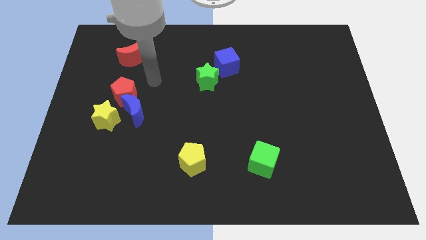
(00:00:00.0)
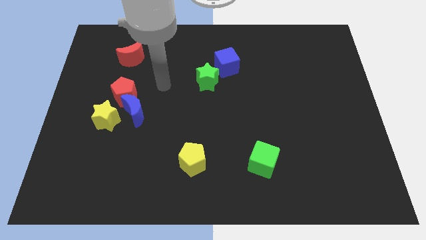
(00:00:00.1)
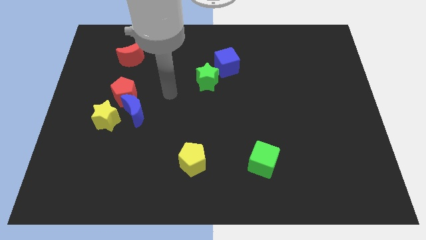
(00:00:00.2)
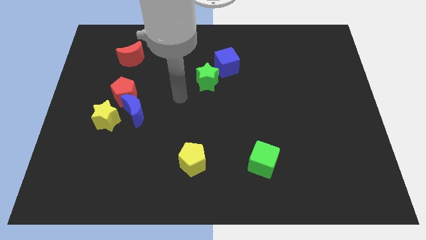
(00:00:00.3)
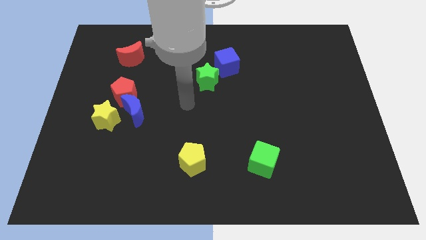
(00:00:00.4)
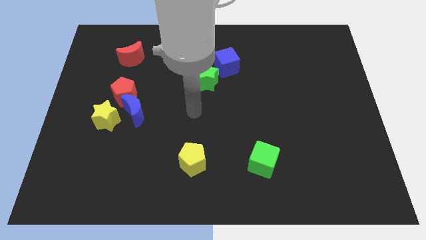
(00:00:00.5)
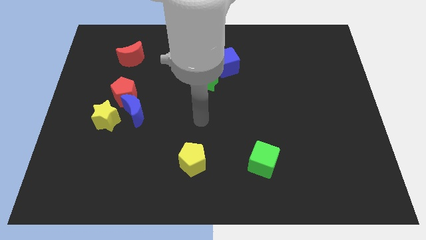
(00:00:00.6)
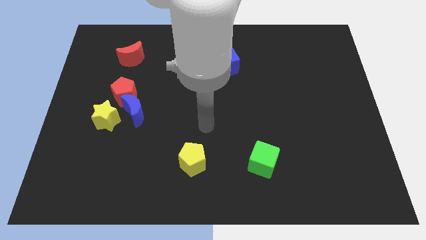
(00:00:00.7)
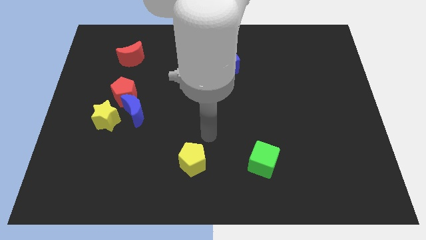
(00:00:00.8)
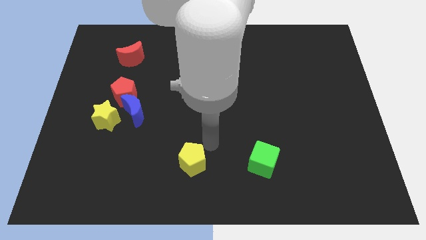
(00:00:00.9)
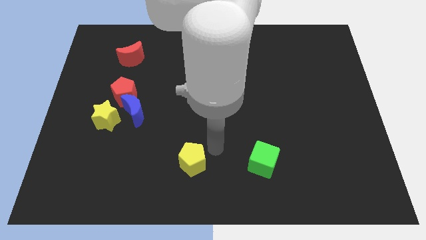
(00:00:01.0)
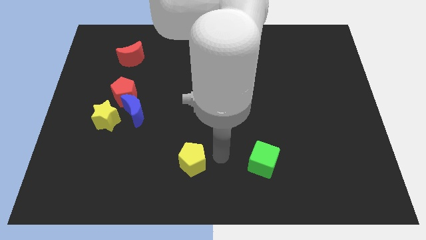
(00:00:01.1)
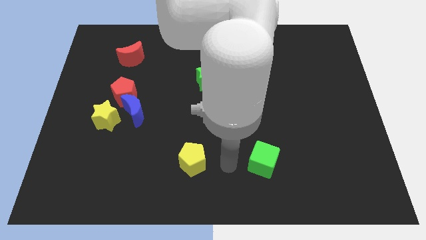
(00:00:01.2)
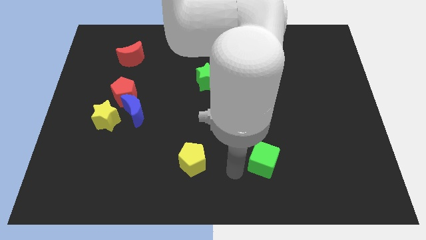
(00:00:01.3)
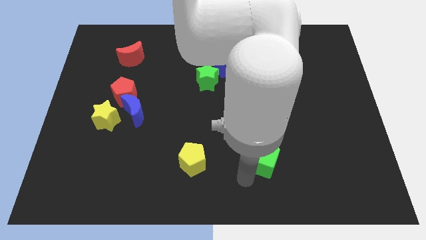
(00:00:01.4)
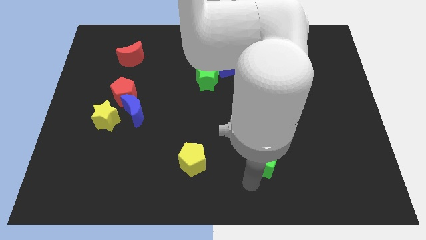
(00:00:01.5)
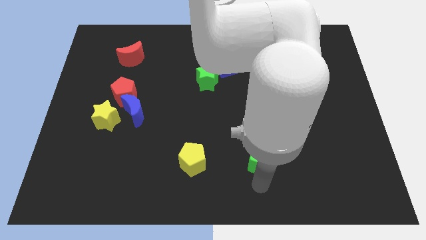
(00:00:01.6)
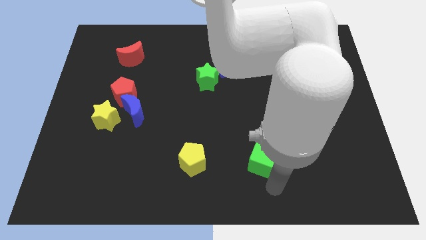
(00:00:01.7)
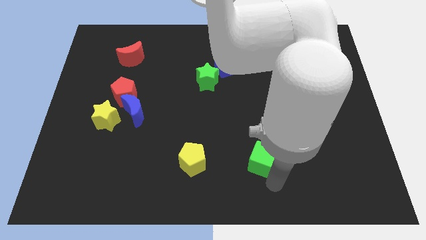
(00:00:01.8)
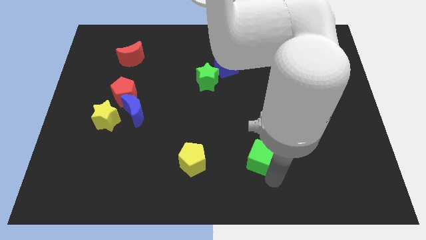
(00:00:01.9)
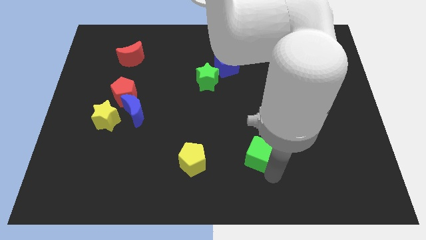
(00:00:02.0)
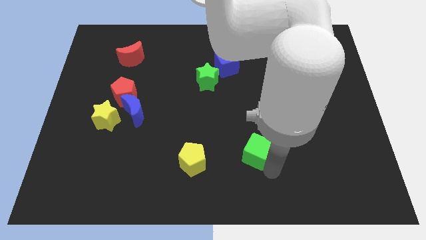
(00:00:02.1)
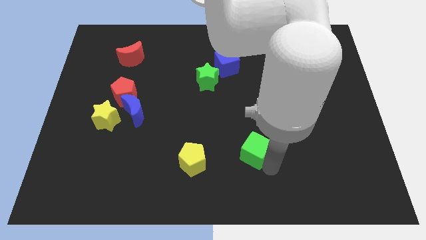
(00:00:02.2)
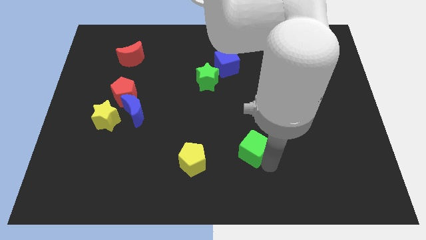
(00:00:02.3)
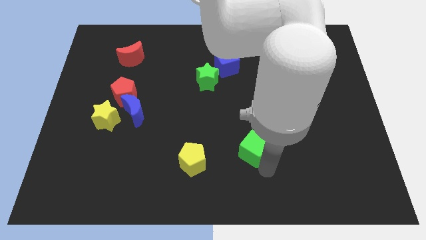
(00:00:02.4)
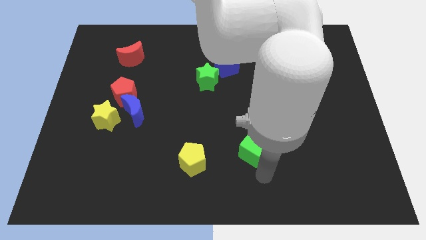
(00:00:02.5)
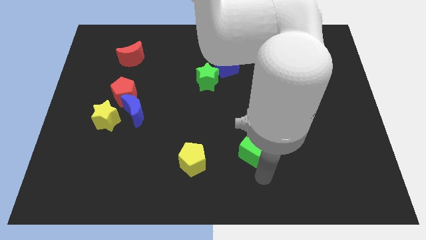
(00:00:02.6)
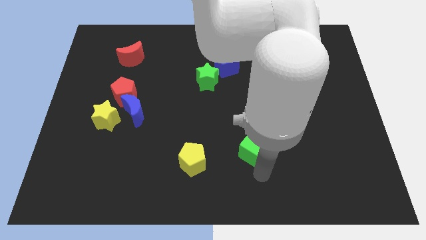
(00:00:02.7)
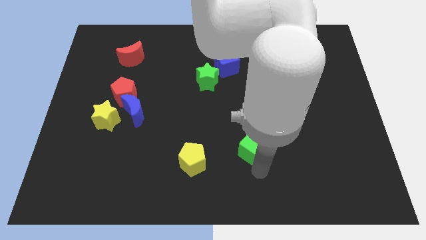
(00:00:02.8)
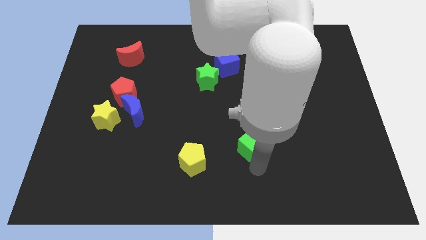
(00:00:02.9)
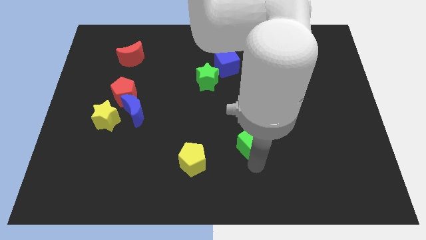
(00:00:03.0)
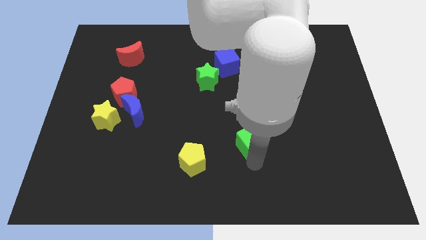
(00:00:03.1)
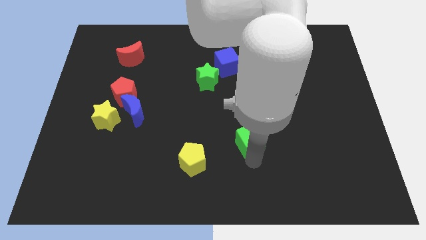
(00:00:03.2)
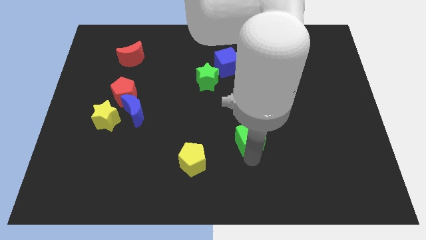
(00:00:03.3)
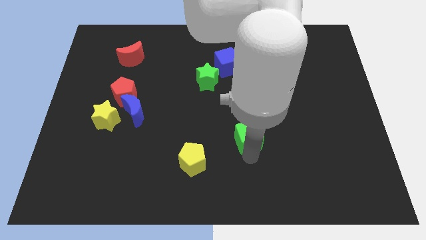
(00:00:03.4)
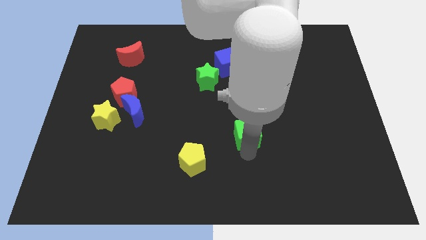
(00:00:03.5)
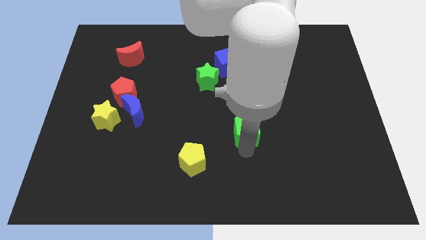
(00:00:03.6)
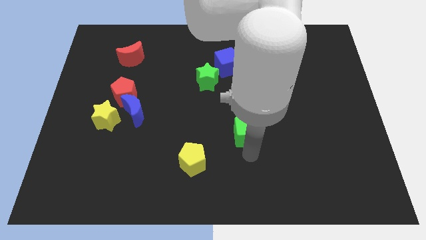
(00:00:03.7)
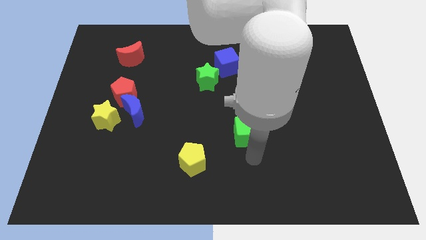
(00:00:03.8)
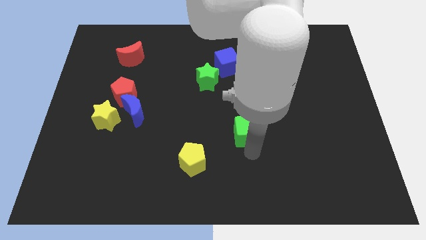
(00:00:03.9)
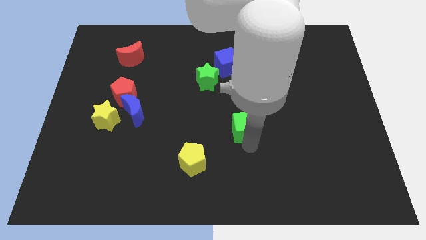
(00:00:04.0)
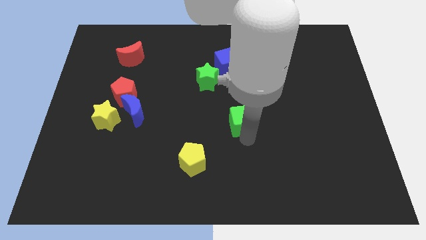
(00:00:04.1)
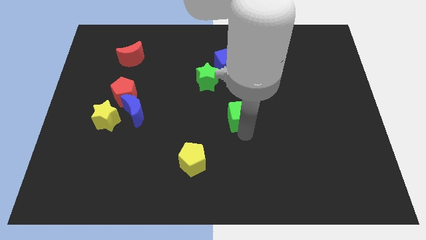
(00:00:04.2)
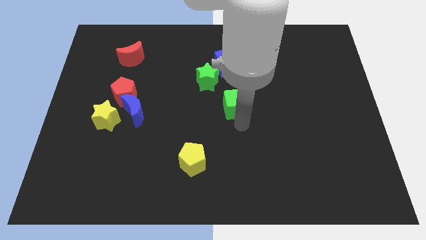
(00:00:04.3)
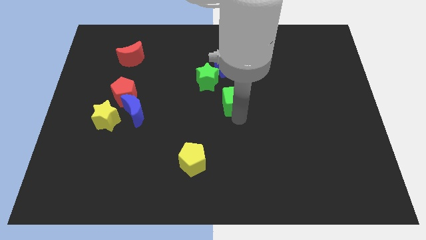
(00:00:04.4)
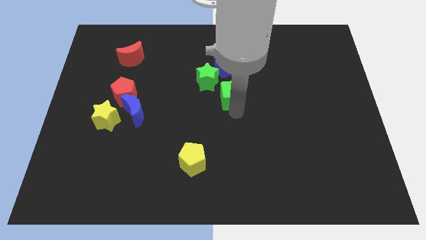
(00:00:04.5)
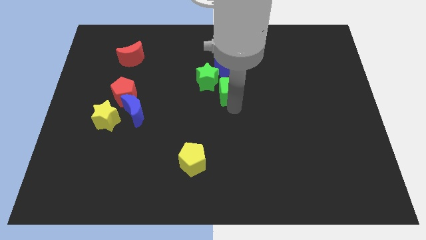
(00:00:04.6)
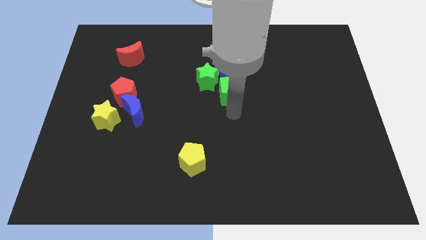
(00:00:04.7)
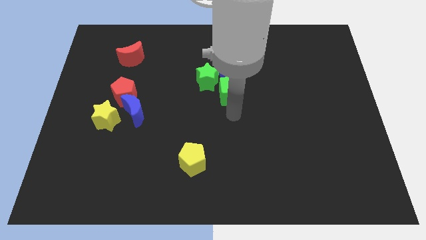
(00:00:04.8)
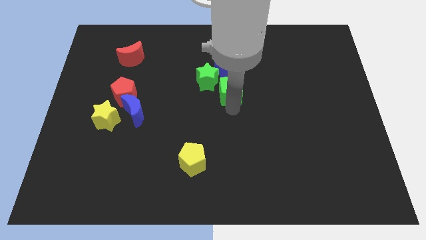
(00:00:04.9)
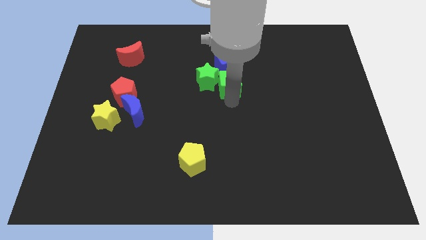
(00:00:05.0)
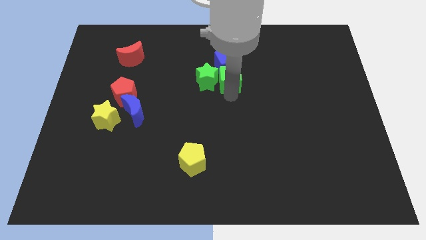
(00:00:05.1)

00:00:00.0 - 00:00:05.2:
push the green cube next to the blue cube

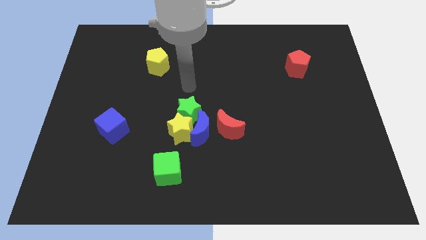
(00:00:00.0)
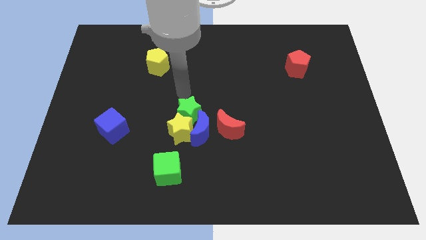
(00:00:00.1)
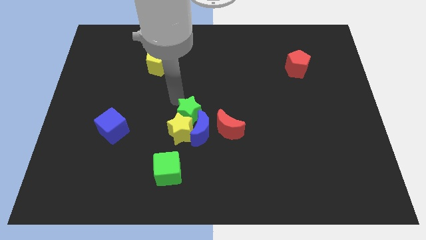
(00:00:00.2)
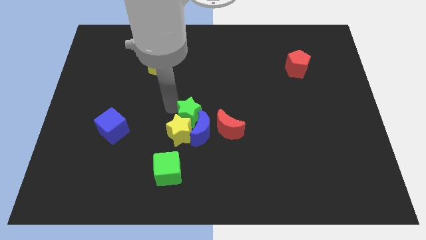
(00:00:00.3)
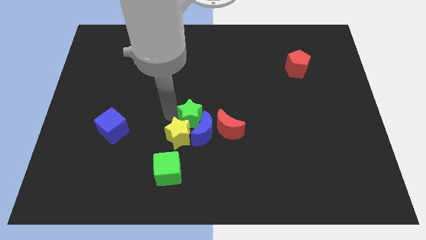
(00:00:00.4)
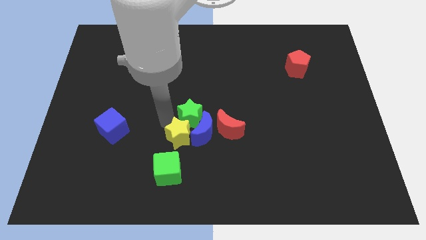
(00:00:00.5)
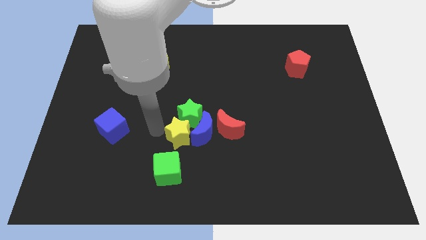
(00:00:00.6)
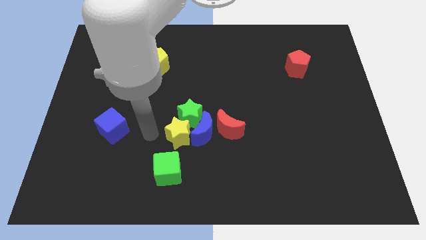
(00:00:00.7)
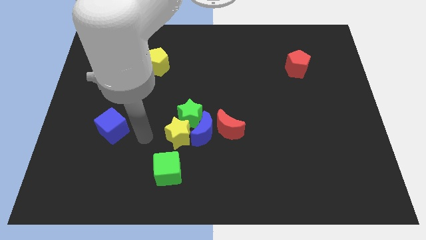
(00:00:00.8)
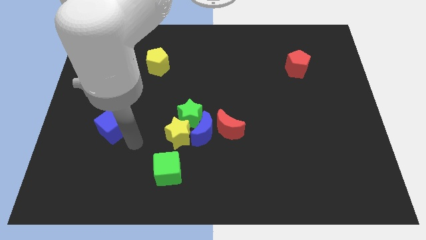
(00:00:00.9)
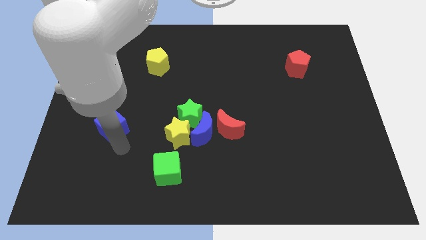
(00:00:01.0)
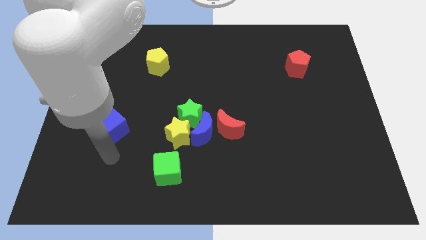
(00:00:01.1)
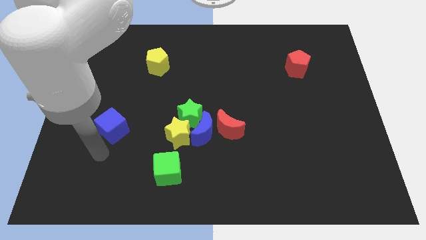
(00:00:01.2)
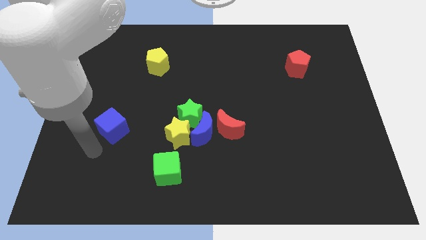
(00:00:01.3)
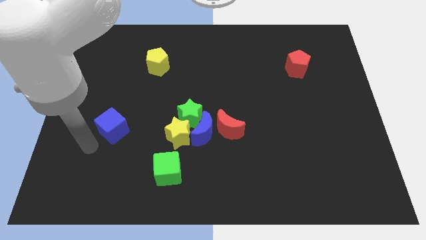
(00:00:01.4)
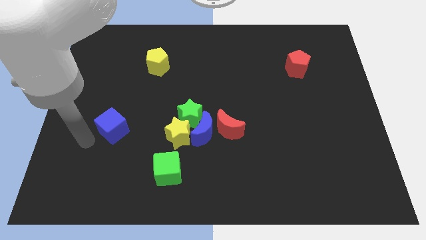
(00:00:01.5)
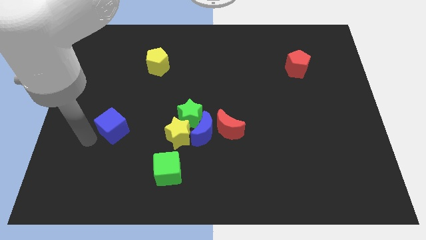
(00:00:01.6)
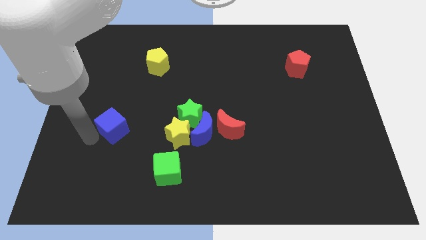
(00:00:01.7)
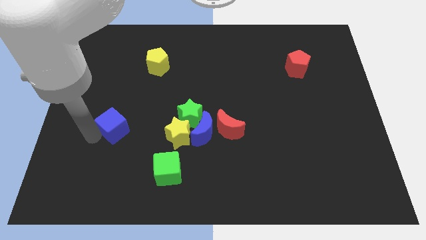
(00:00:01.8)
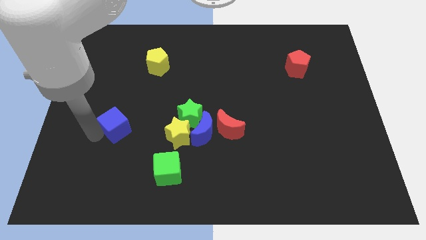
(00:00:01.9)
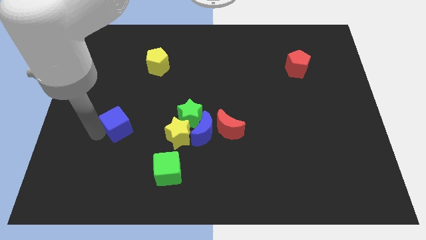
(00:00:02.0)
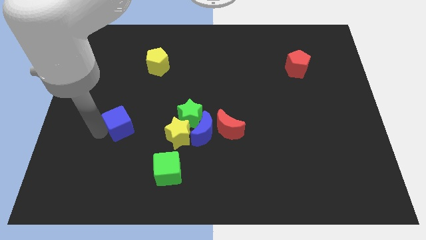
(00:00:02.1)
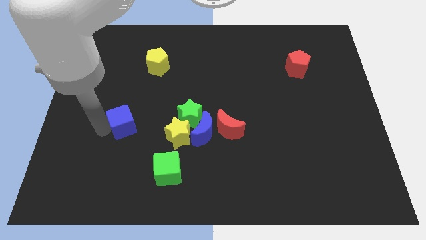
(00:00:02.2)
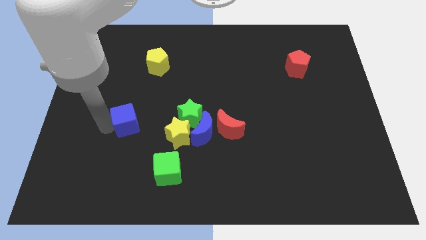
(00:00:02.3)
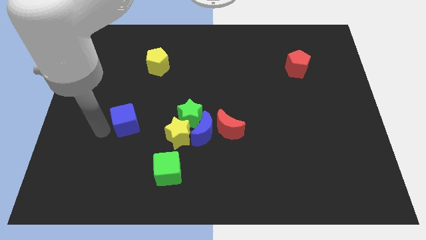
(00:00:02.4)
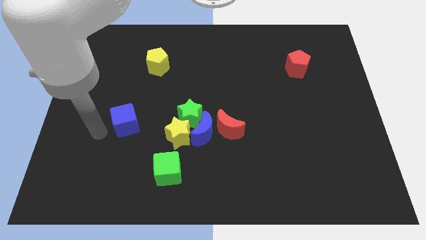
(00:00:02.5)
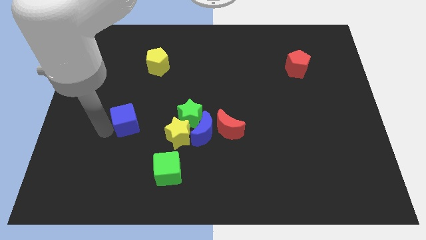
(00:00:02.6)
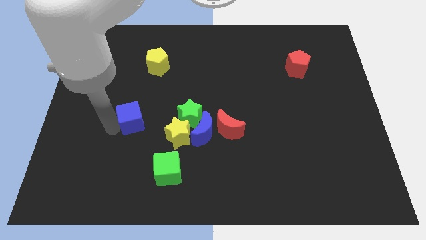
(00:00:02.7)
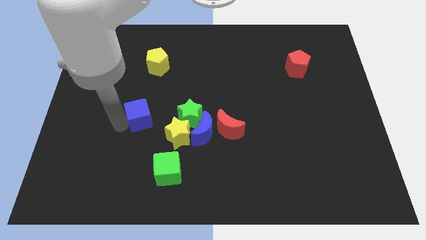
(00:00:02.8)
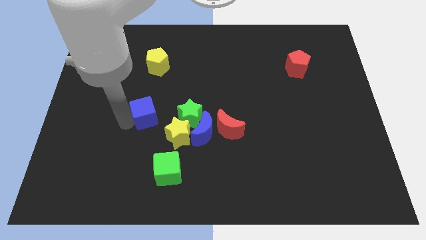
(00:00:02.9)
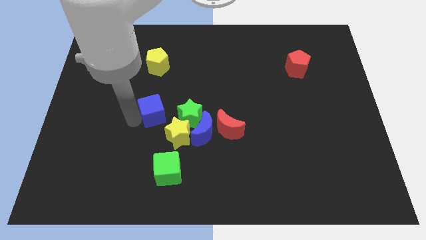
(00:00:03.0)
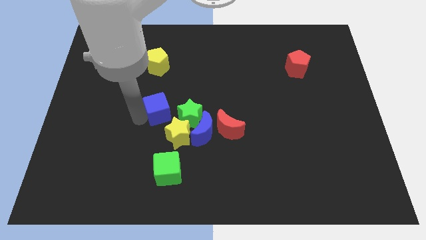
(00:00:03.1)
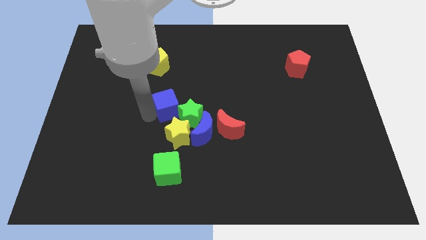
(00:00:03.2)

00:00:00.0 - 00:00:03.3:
move the blue cube towards the green star
